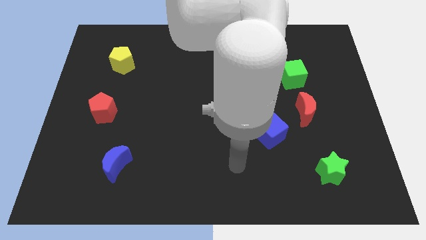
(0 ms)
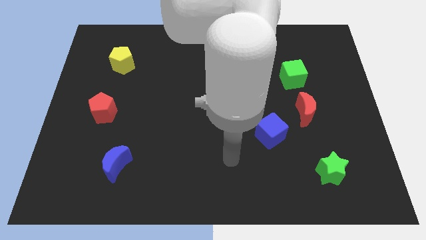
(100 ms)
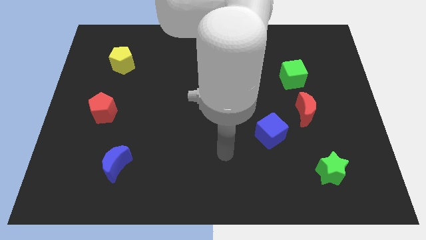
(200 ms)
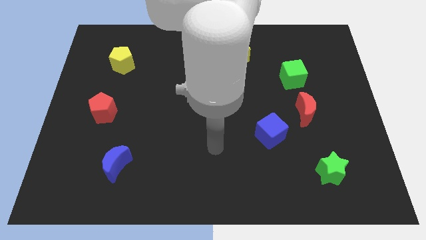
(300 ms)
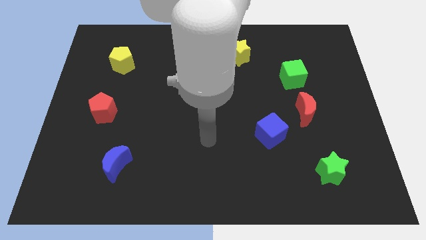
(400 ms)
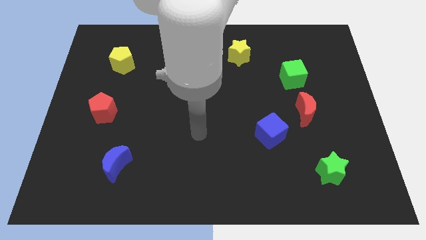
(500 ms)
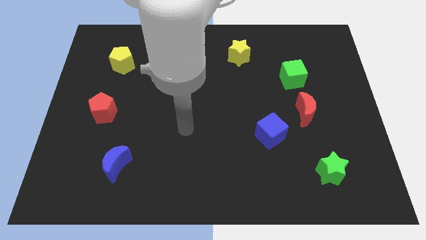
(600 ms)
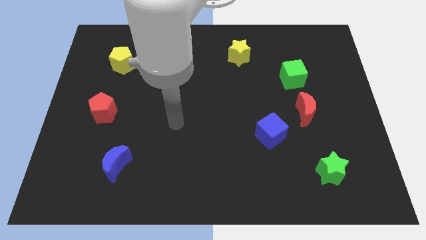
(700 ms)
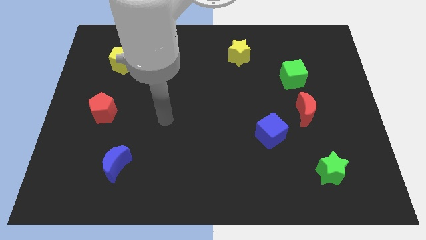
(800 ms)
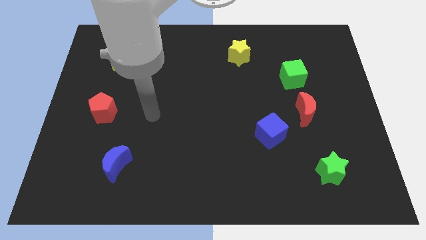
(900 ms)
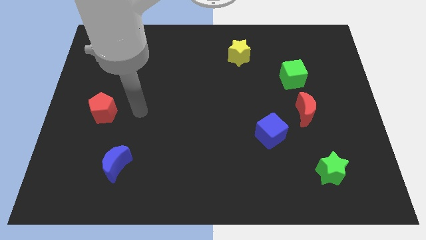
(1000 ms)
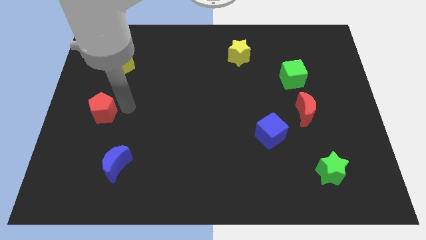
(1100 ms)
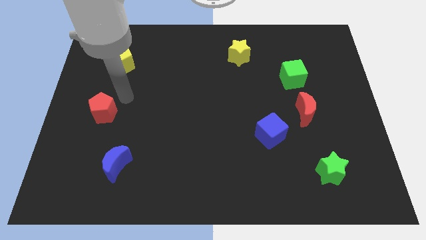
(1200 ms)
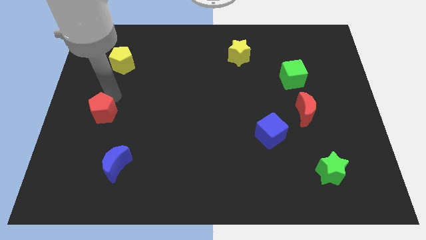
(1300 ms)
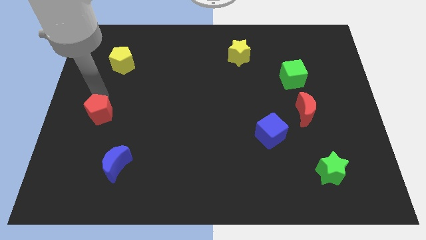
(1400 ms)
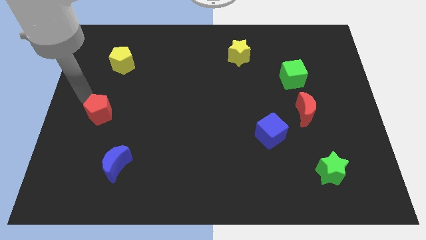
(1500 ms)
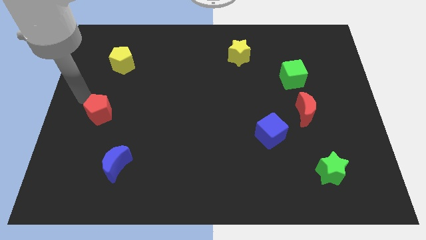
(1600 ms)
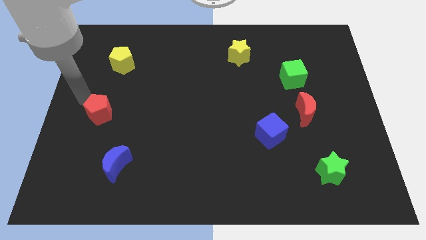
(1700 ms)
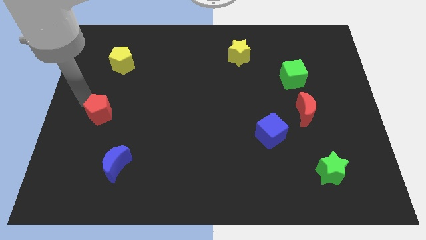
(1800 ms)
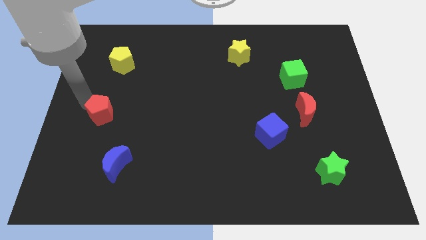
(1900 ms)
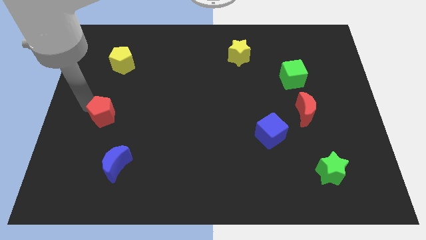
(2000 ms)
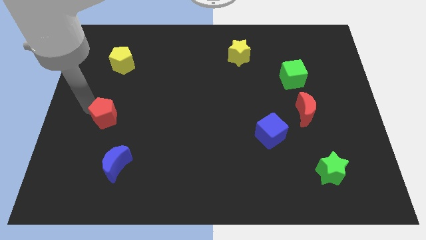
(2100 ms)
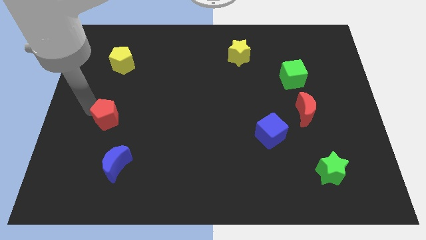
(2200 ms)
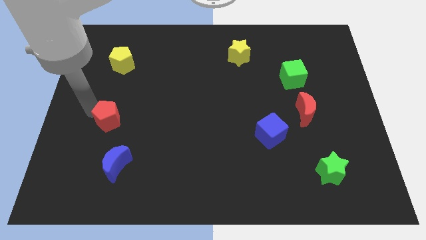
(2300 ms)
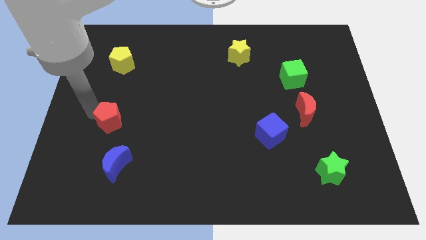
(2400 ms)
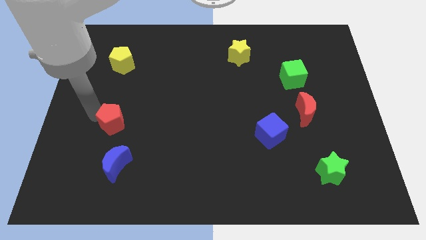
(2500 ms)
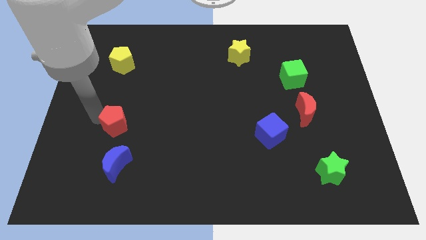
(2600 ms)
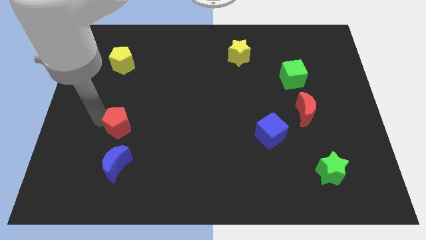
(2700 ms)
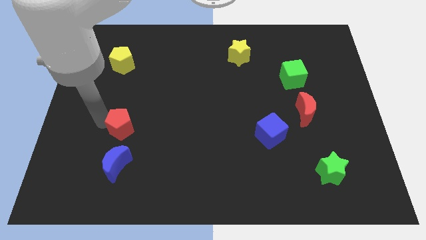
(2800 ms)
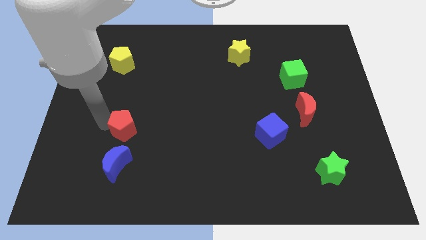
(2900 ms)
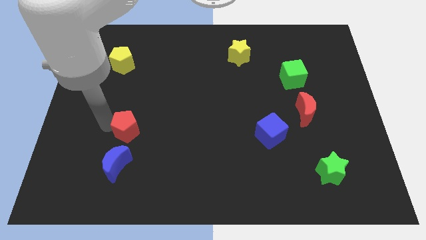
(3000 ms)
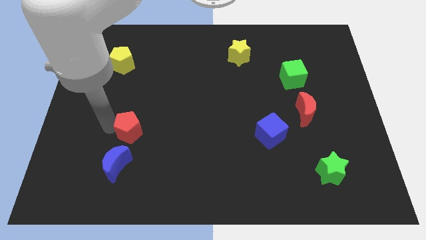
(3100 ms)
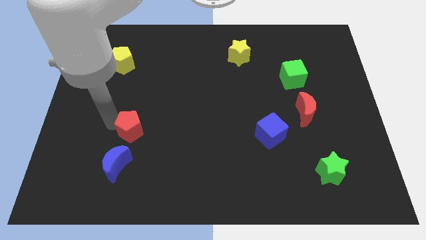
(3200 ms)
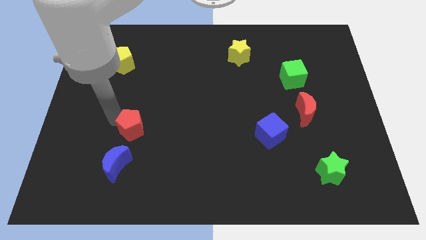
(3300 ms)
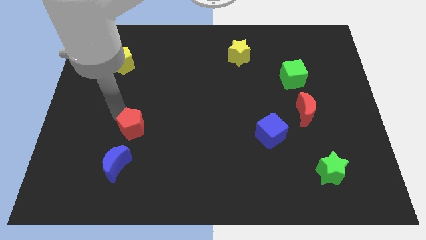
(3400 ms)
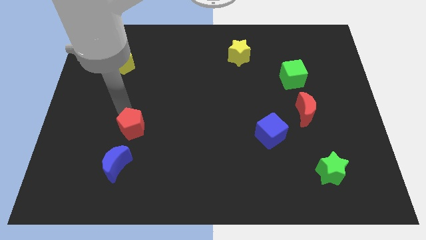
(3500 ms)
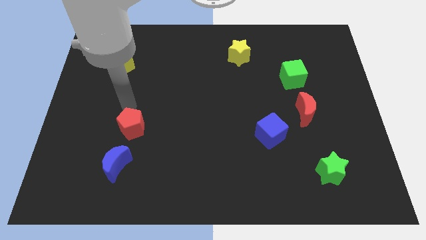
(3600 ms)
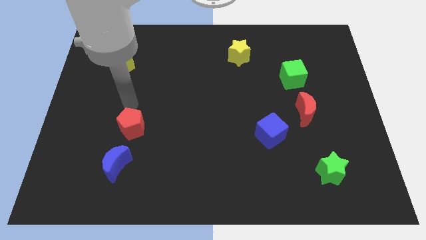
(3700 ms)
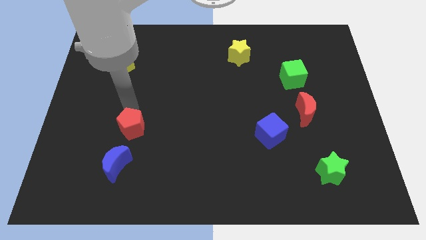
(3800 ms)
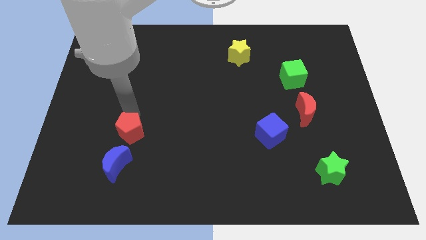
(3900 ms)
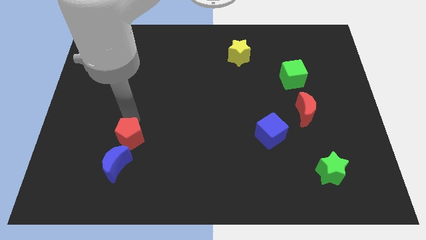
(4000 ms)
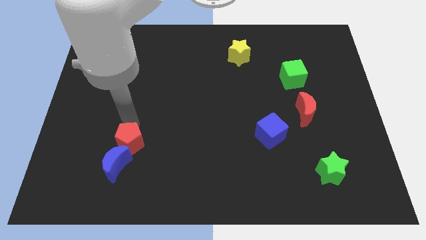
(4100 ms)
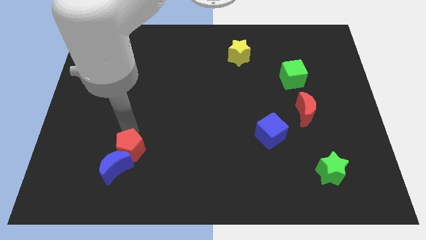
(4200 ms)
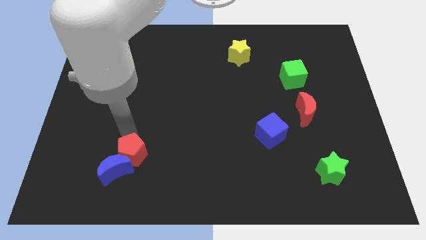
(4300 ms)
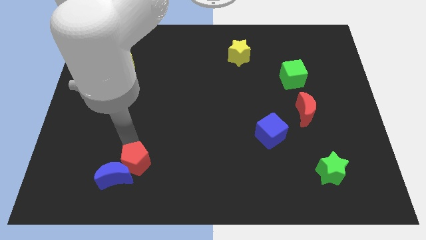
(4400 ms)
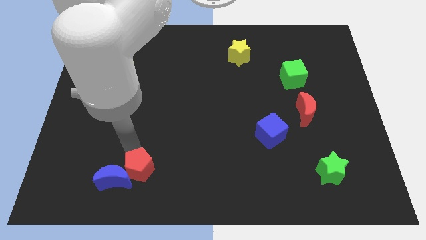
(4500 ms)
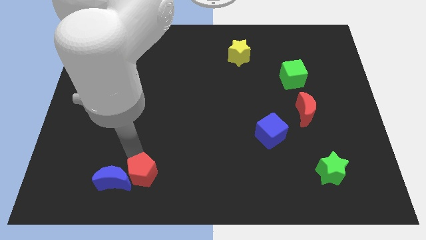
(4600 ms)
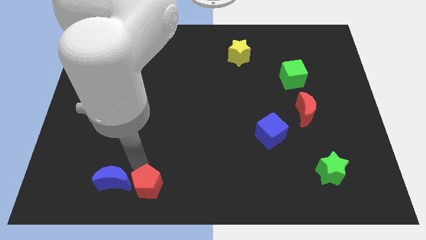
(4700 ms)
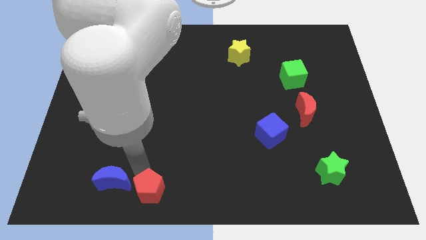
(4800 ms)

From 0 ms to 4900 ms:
put the red pentagon to the bottom side
